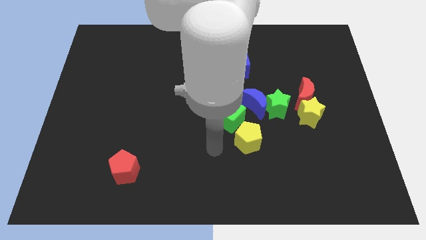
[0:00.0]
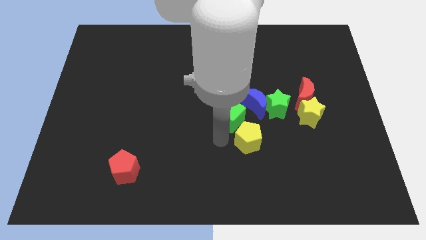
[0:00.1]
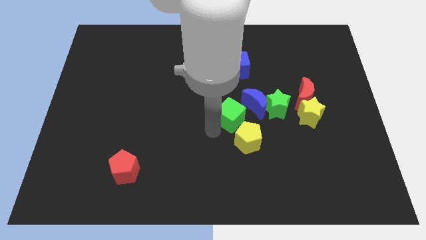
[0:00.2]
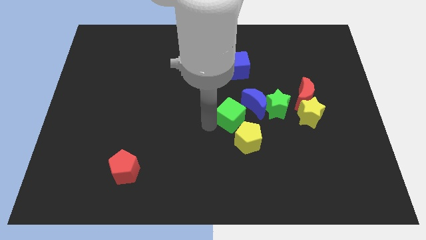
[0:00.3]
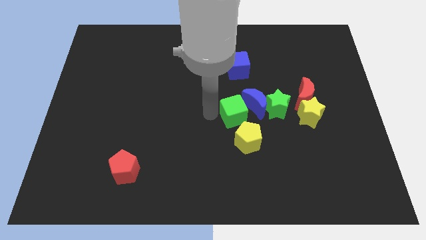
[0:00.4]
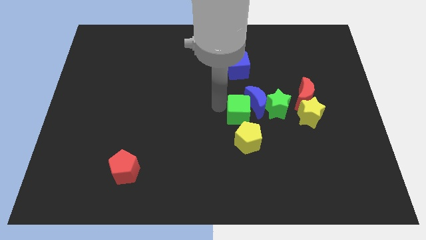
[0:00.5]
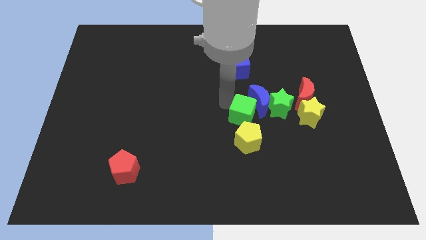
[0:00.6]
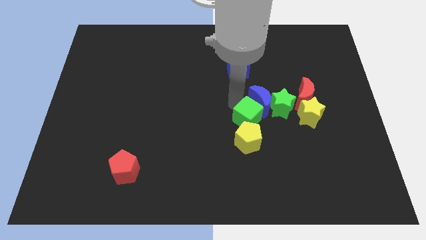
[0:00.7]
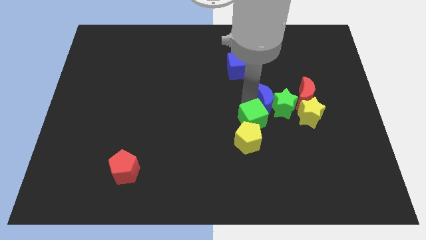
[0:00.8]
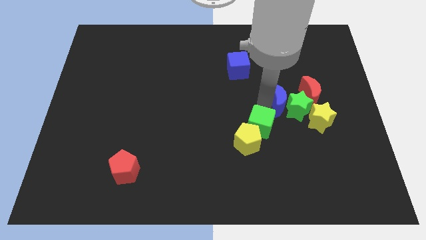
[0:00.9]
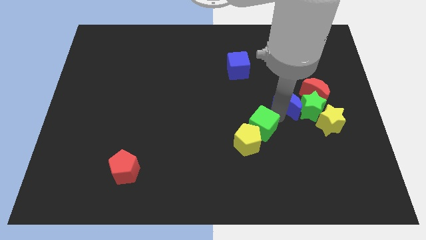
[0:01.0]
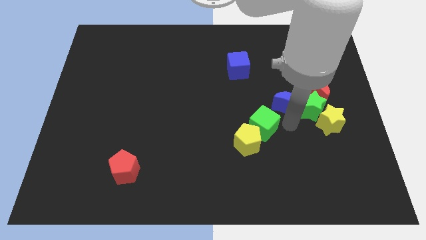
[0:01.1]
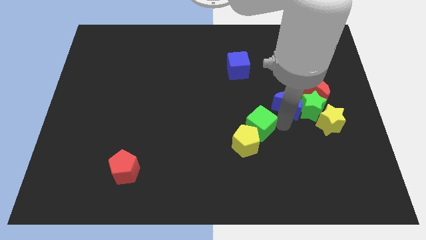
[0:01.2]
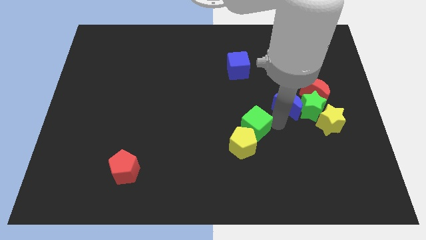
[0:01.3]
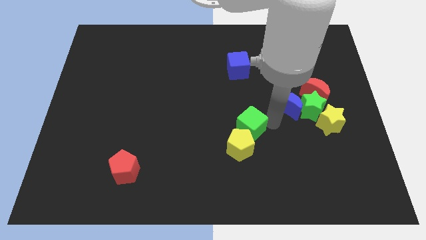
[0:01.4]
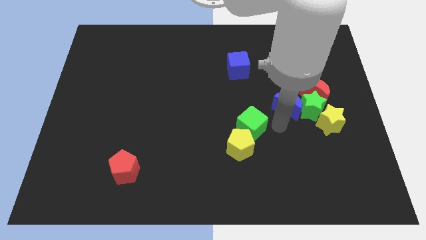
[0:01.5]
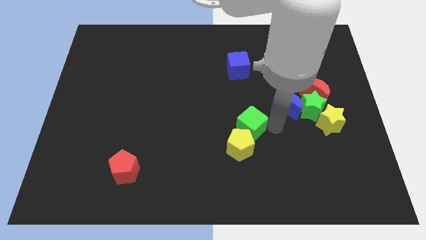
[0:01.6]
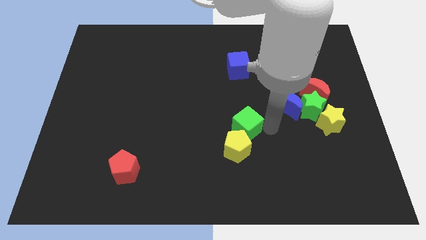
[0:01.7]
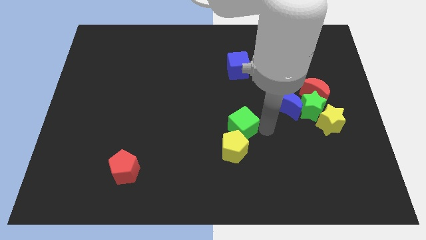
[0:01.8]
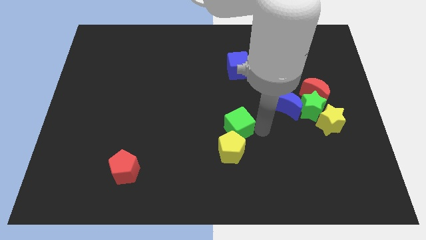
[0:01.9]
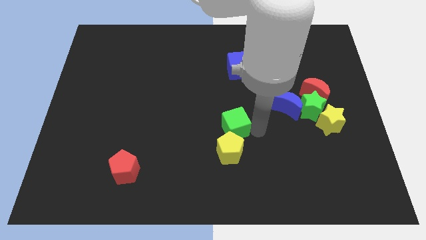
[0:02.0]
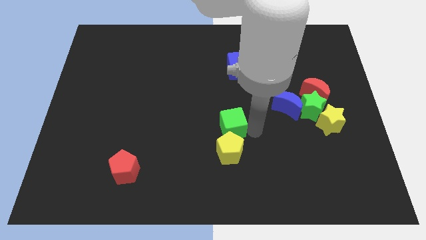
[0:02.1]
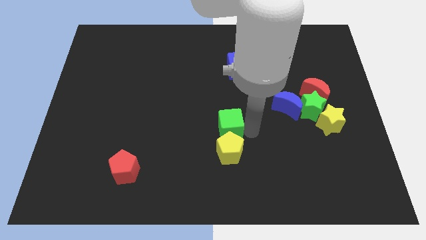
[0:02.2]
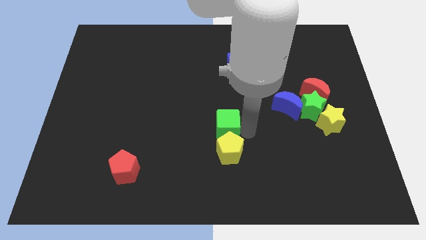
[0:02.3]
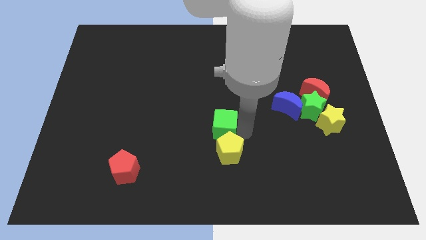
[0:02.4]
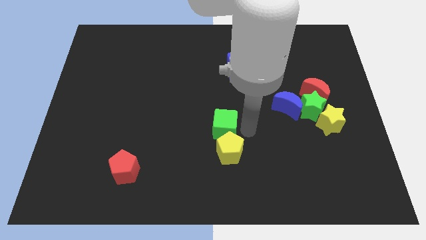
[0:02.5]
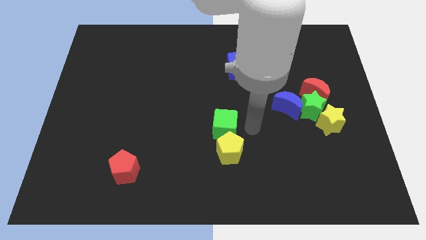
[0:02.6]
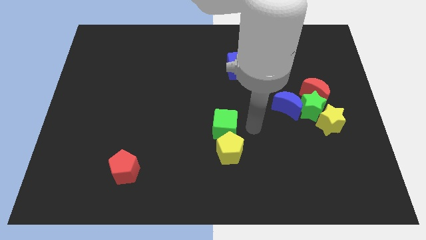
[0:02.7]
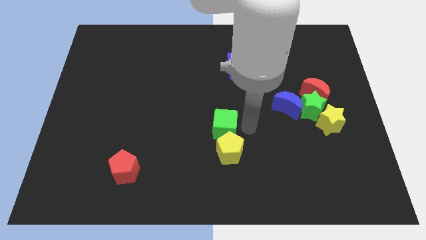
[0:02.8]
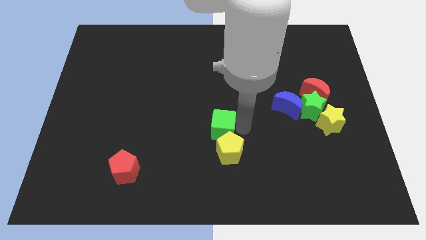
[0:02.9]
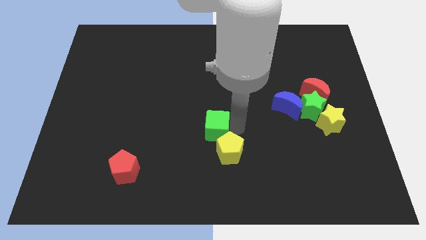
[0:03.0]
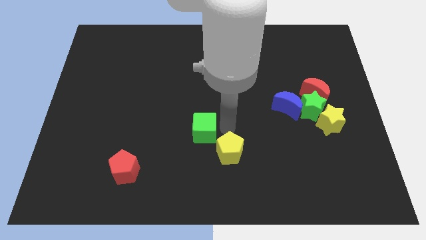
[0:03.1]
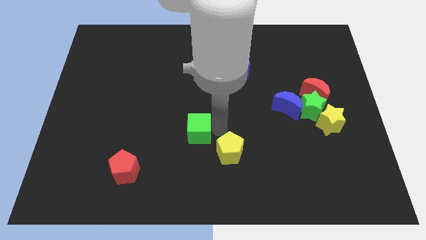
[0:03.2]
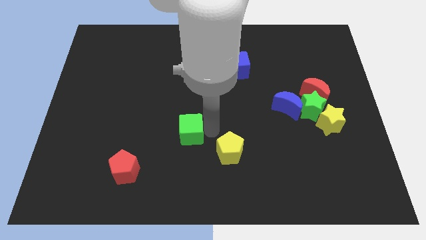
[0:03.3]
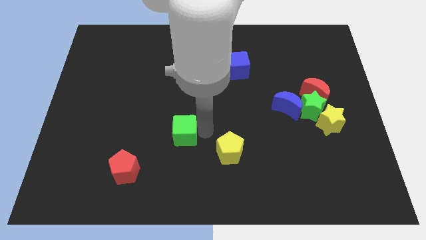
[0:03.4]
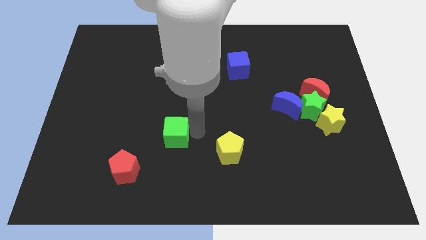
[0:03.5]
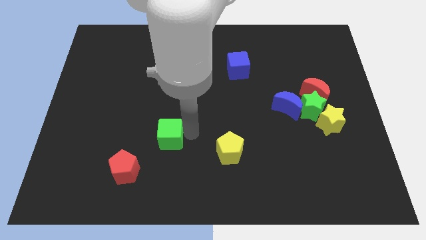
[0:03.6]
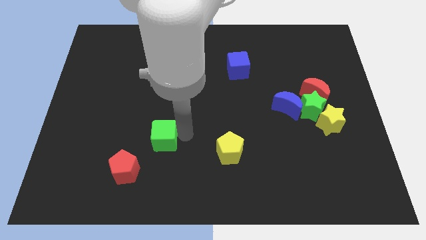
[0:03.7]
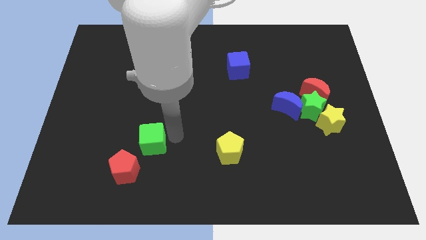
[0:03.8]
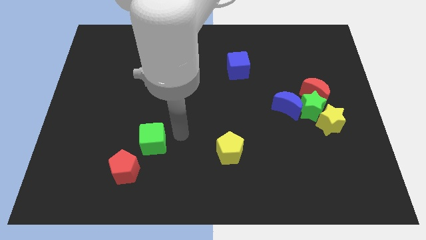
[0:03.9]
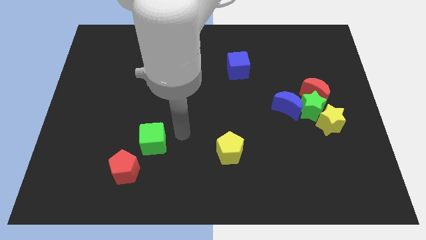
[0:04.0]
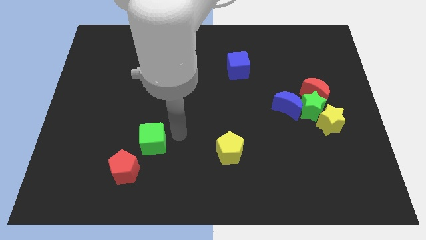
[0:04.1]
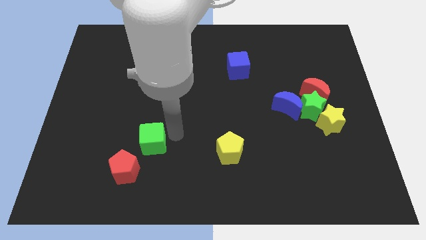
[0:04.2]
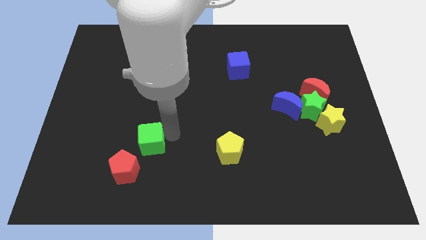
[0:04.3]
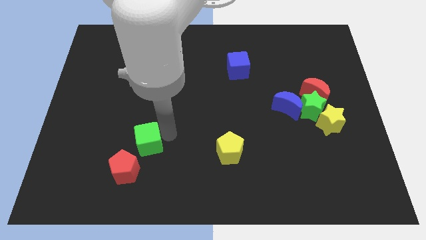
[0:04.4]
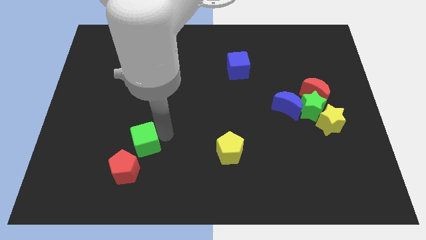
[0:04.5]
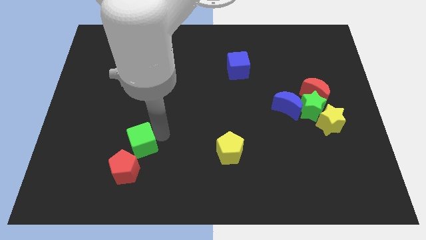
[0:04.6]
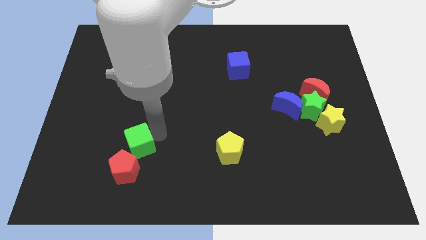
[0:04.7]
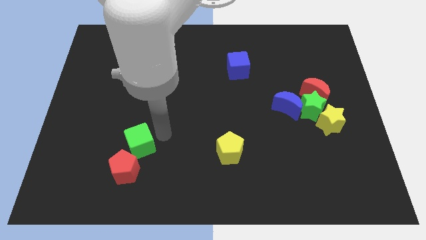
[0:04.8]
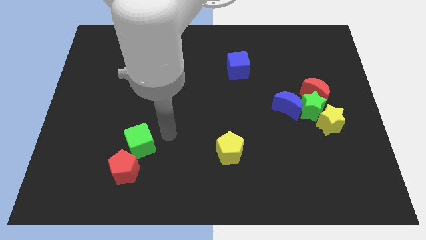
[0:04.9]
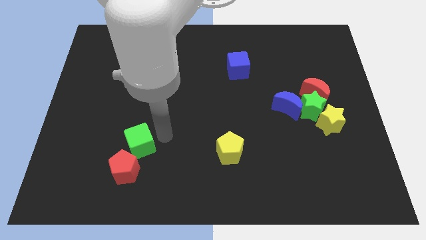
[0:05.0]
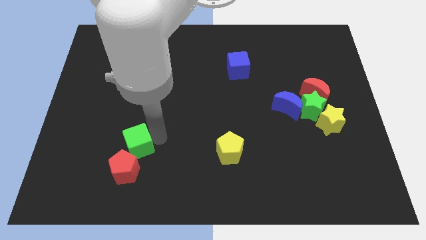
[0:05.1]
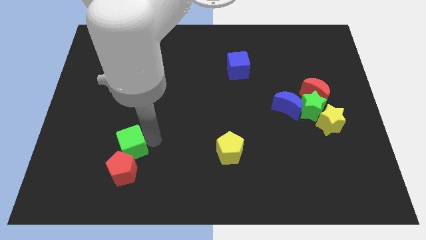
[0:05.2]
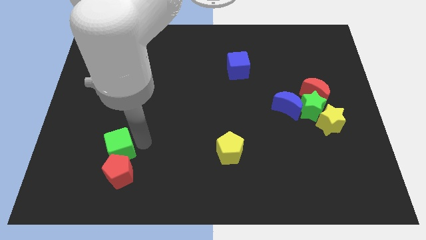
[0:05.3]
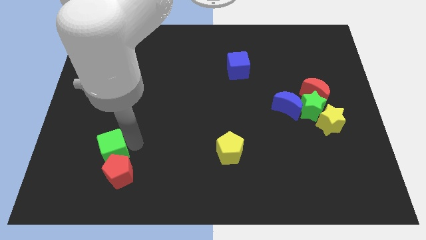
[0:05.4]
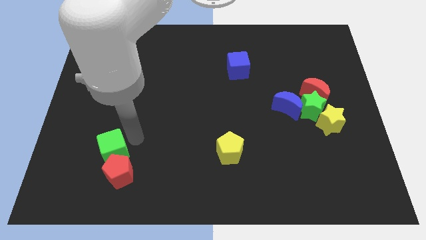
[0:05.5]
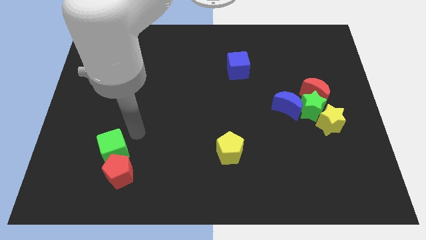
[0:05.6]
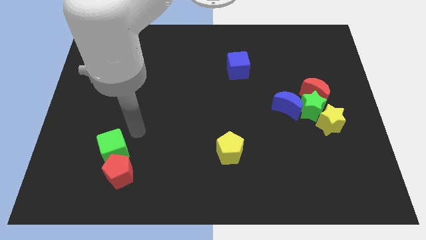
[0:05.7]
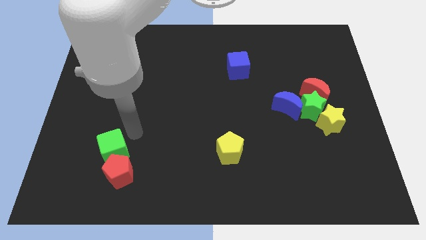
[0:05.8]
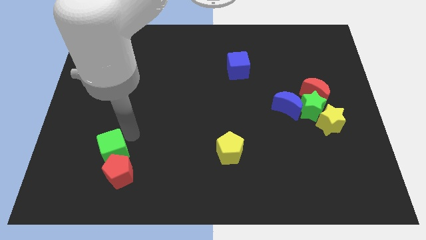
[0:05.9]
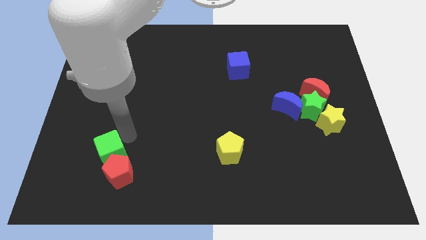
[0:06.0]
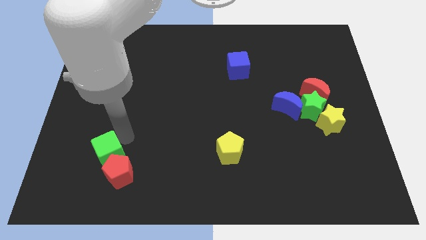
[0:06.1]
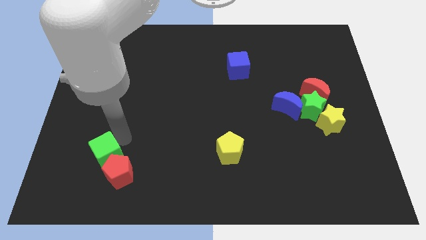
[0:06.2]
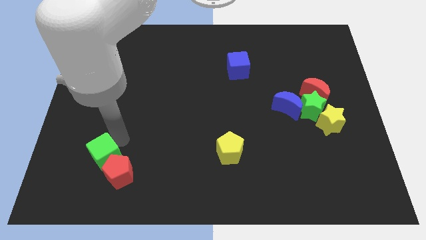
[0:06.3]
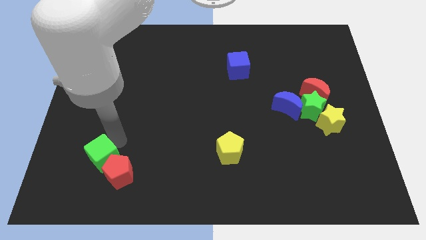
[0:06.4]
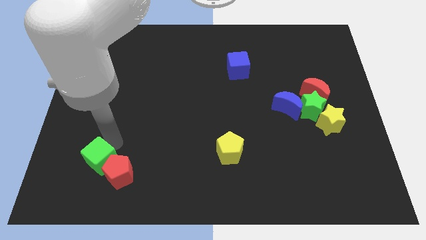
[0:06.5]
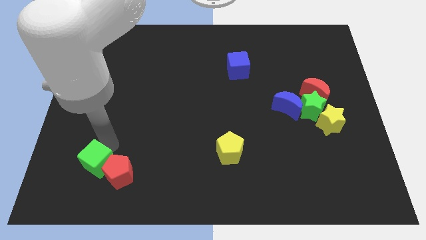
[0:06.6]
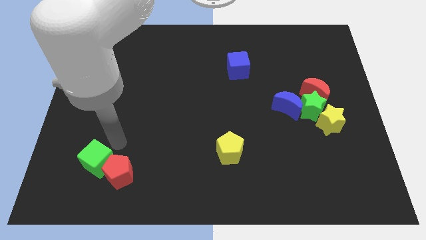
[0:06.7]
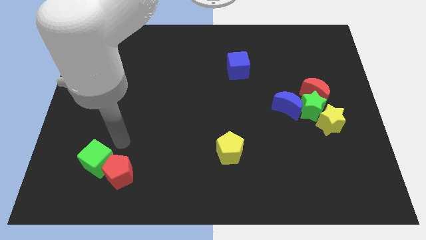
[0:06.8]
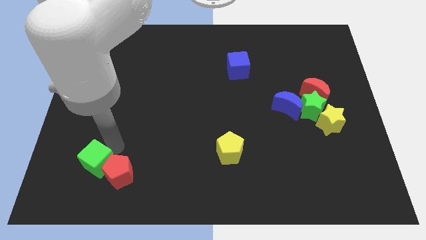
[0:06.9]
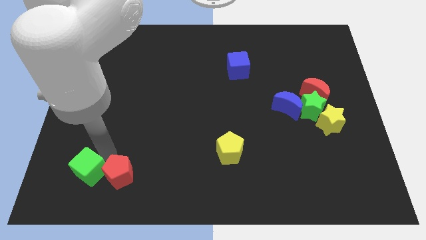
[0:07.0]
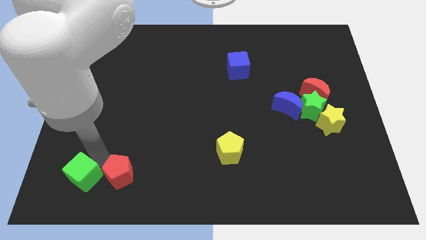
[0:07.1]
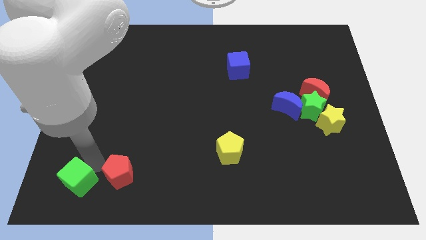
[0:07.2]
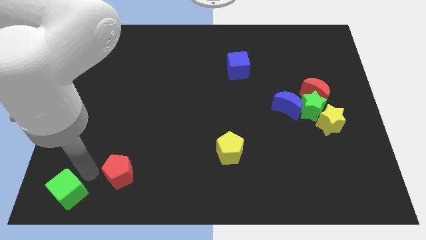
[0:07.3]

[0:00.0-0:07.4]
slide the green cube to the lower left corner
